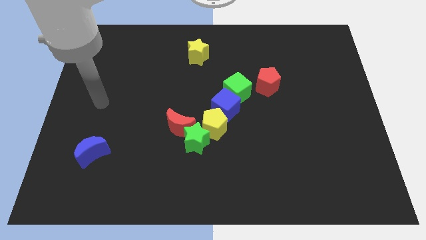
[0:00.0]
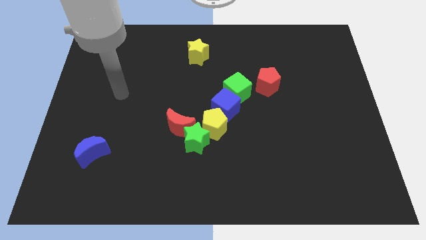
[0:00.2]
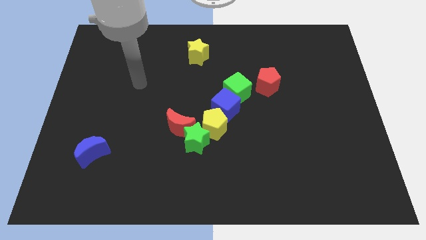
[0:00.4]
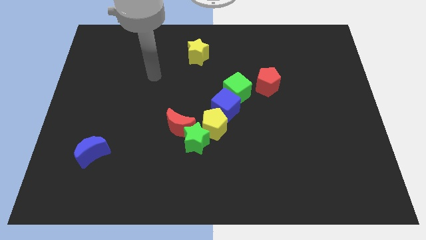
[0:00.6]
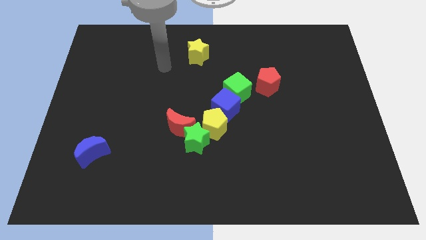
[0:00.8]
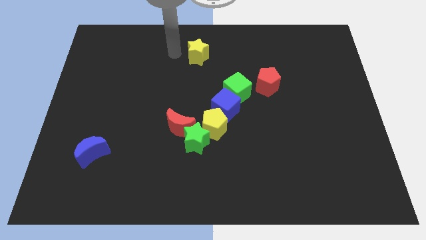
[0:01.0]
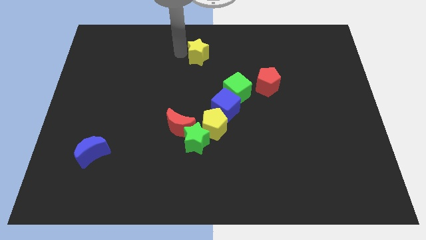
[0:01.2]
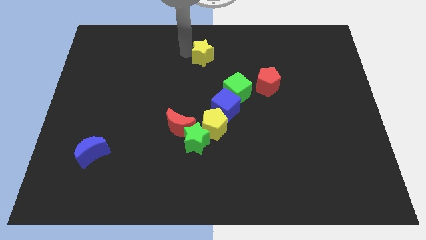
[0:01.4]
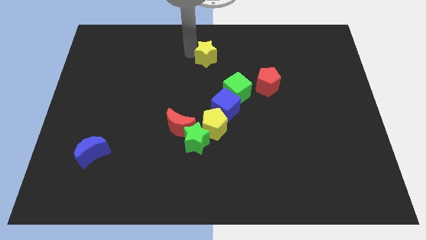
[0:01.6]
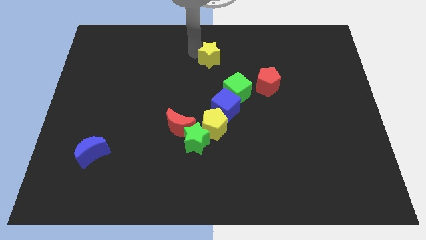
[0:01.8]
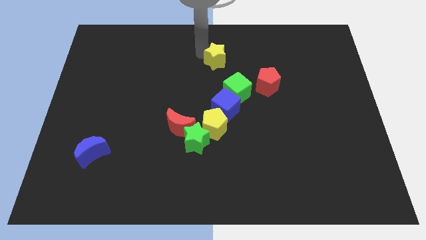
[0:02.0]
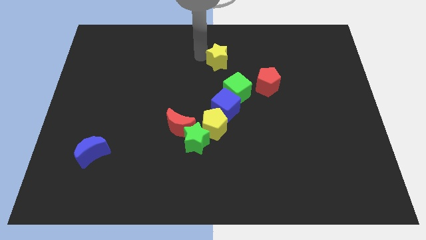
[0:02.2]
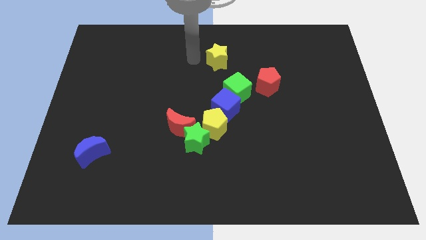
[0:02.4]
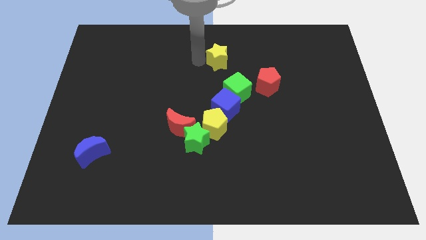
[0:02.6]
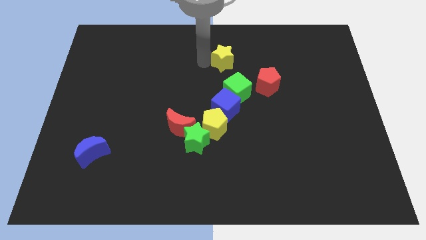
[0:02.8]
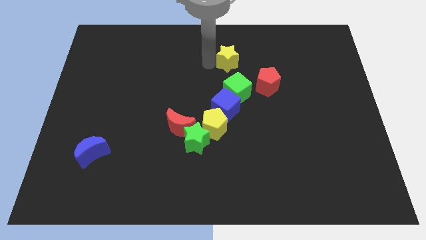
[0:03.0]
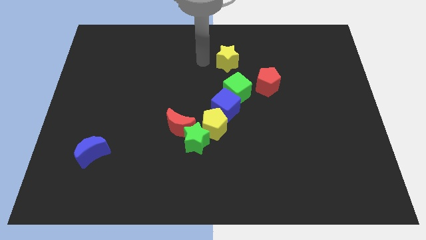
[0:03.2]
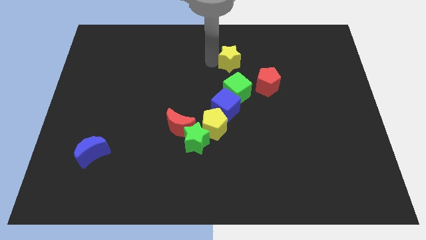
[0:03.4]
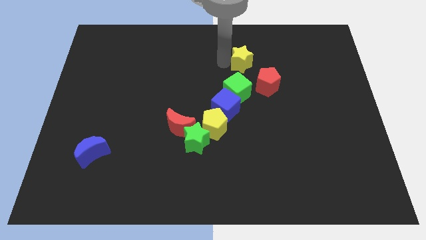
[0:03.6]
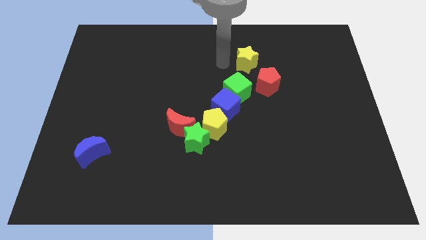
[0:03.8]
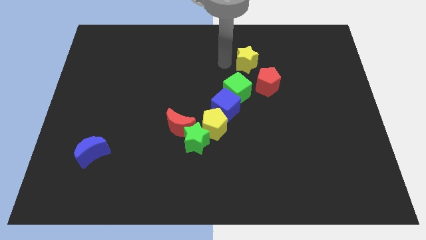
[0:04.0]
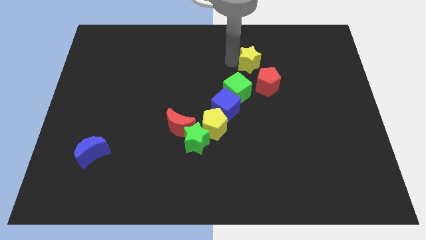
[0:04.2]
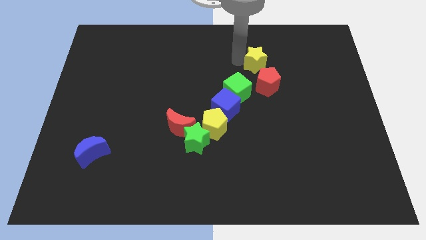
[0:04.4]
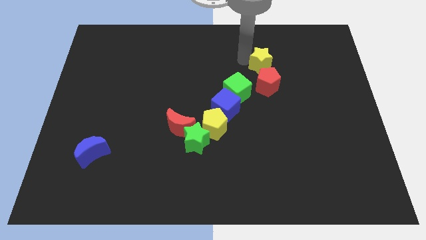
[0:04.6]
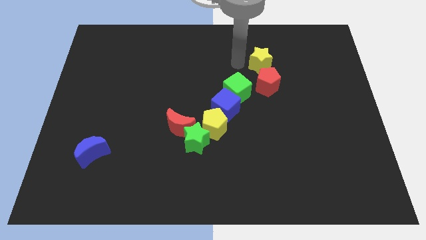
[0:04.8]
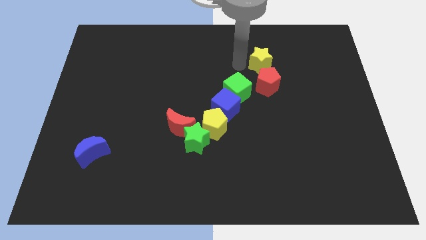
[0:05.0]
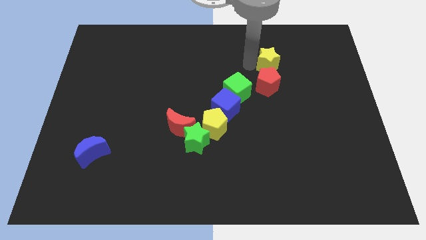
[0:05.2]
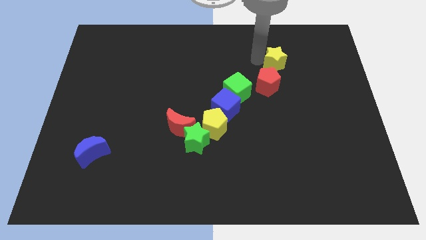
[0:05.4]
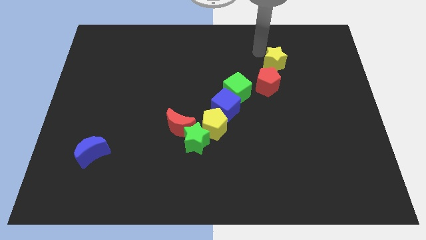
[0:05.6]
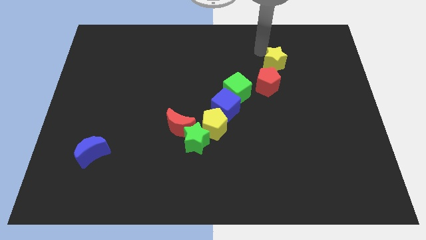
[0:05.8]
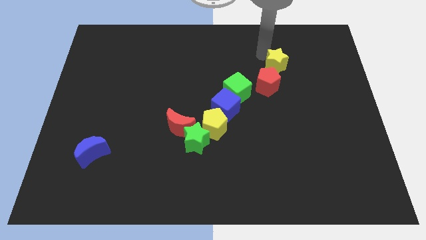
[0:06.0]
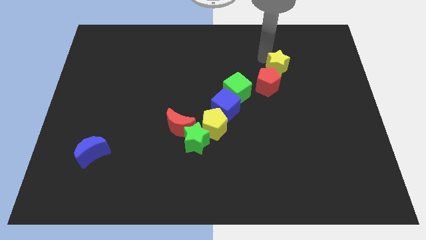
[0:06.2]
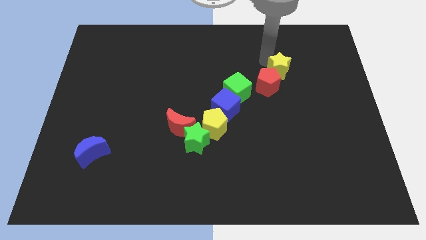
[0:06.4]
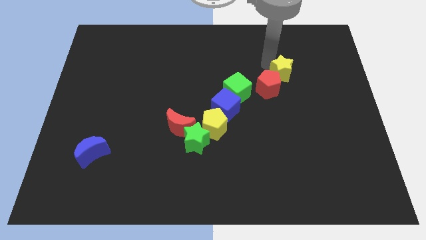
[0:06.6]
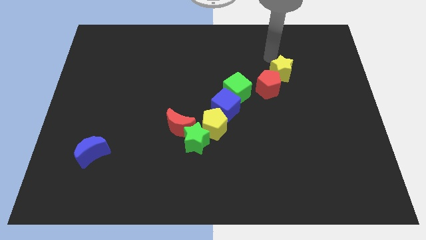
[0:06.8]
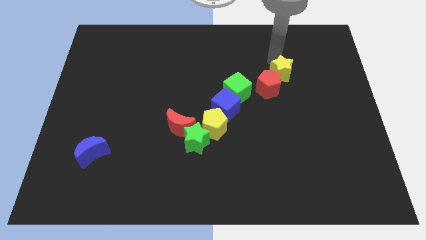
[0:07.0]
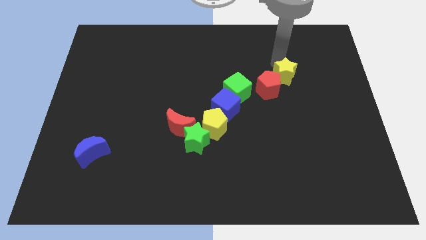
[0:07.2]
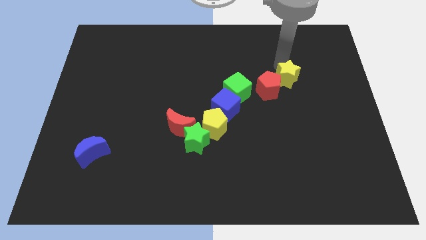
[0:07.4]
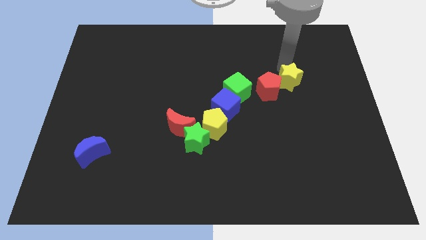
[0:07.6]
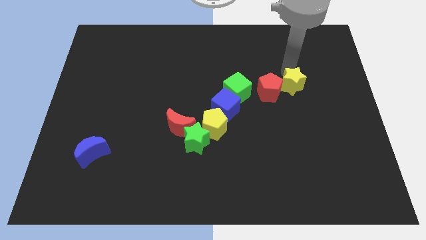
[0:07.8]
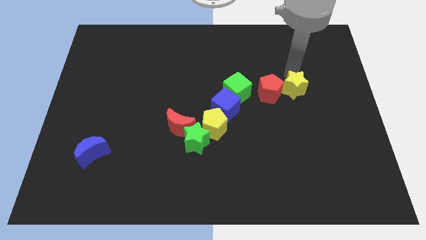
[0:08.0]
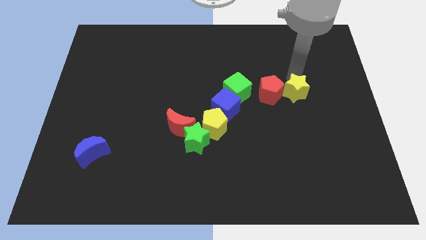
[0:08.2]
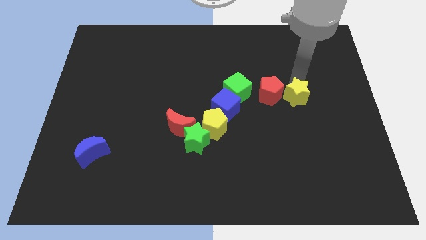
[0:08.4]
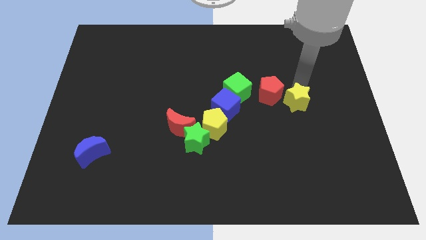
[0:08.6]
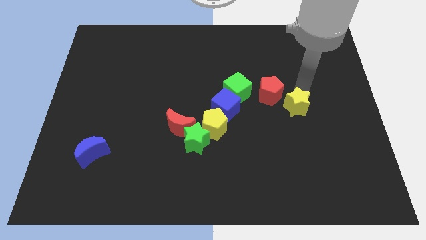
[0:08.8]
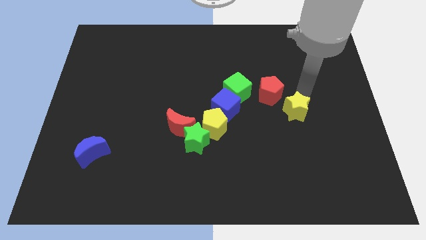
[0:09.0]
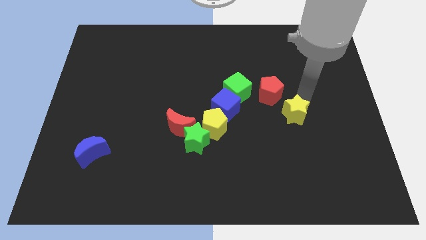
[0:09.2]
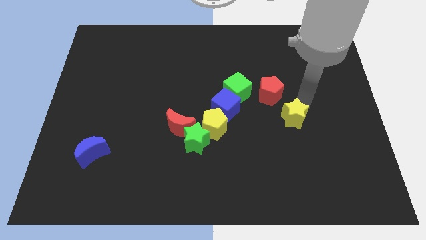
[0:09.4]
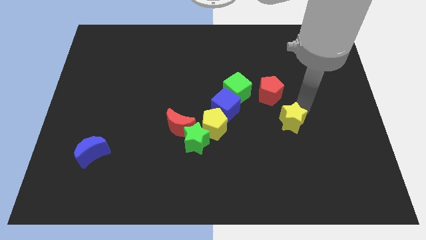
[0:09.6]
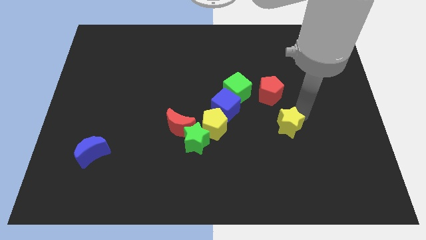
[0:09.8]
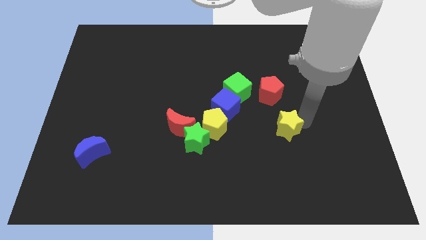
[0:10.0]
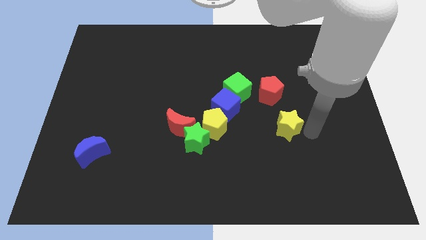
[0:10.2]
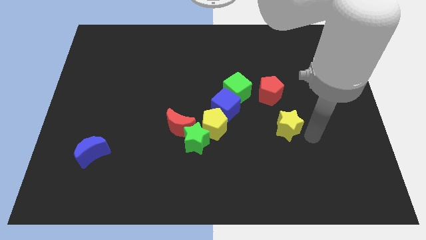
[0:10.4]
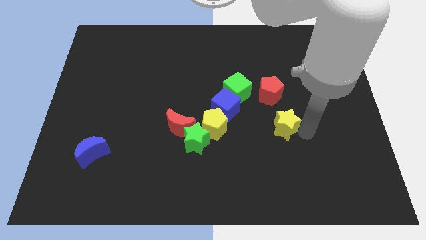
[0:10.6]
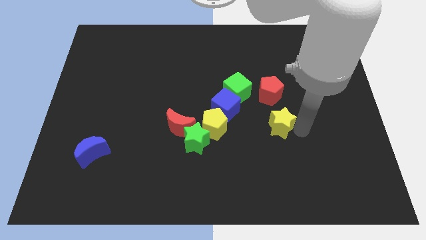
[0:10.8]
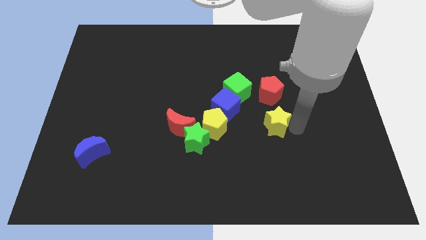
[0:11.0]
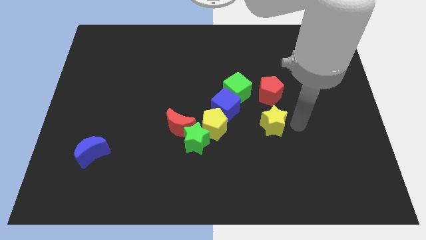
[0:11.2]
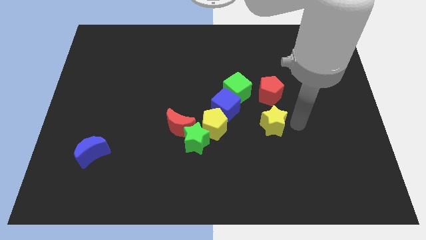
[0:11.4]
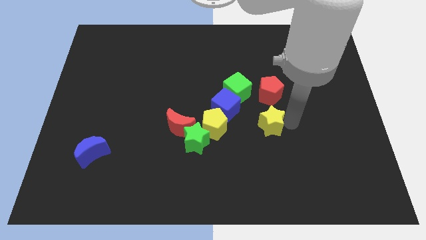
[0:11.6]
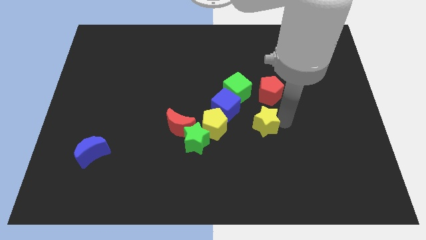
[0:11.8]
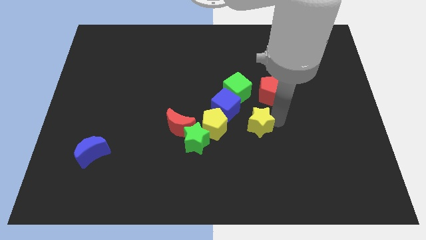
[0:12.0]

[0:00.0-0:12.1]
push the yellow star to the bottom of the green cube
